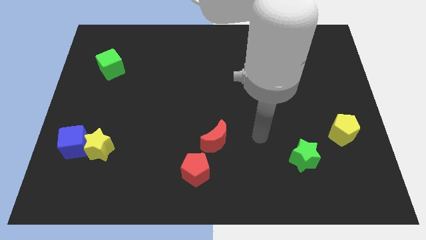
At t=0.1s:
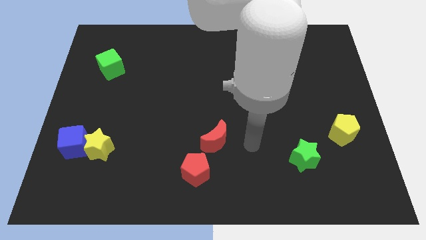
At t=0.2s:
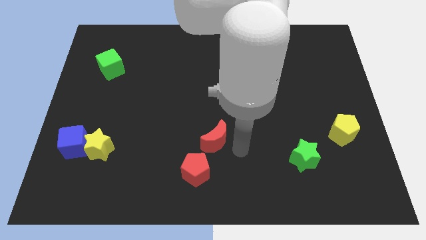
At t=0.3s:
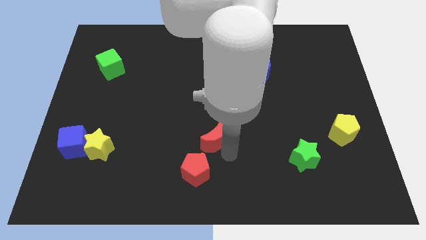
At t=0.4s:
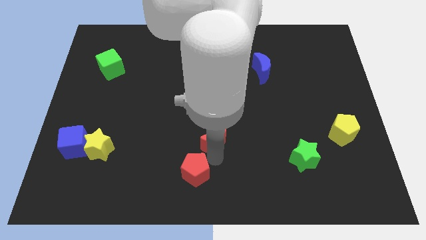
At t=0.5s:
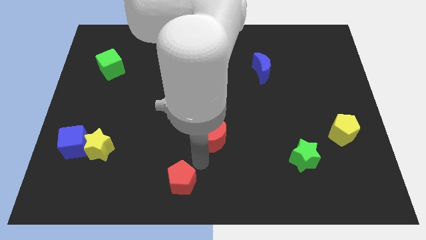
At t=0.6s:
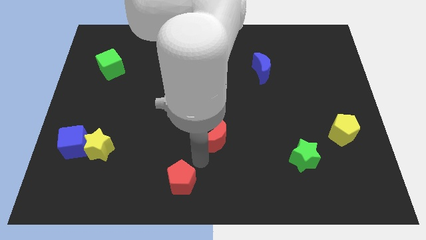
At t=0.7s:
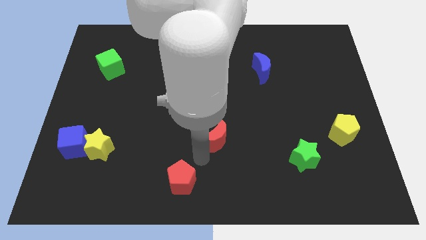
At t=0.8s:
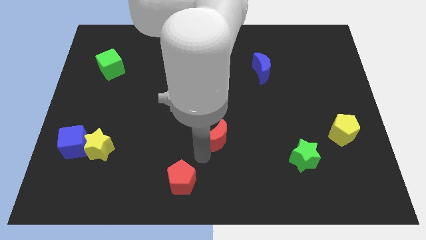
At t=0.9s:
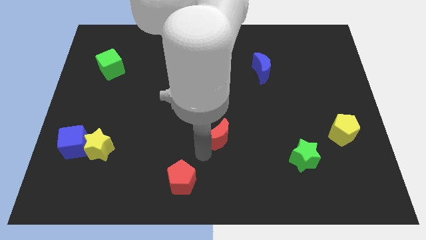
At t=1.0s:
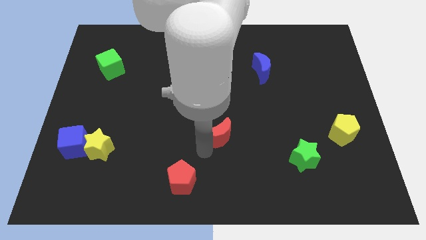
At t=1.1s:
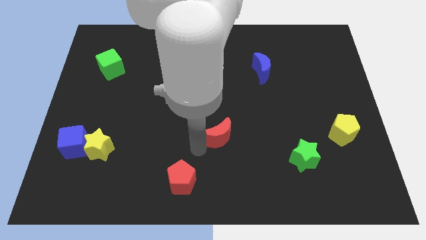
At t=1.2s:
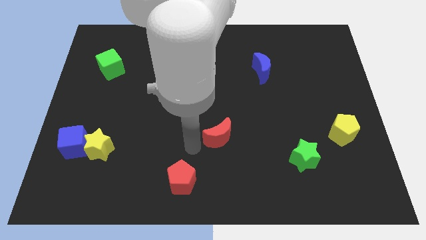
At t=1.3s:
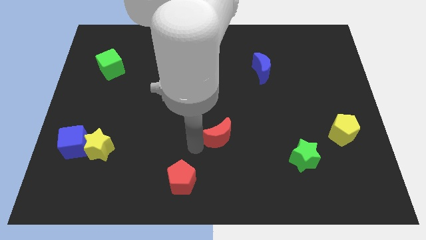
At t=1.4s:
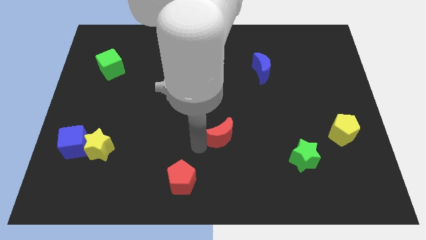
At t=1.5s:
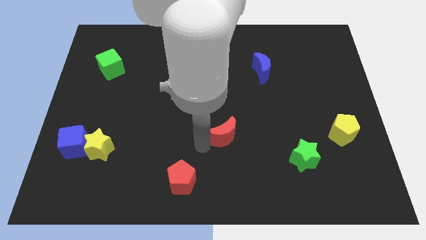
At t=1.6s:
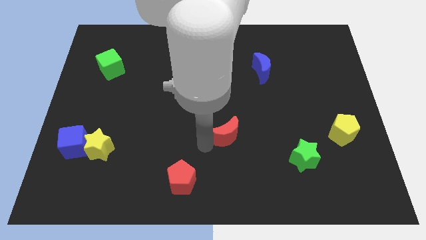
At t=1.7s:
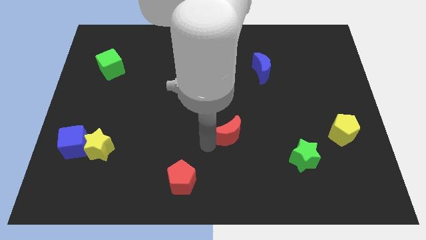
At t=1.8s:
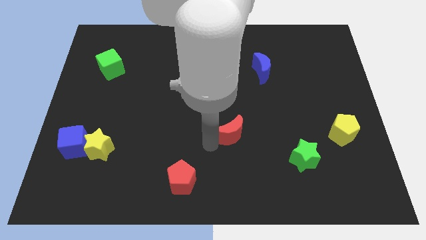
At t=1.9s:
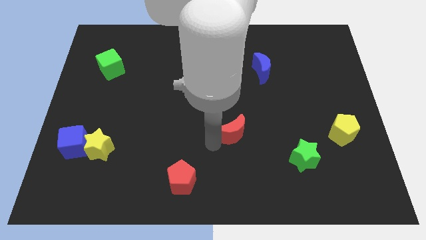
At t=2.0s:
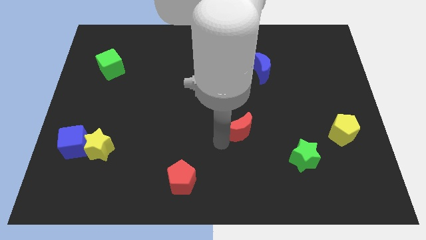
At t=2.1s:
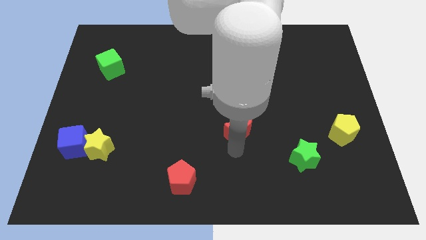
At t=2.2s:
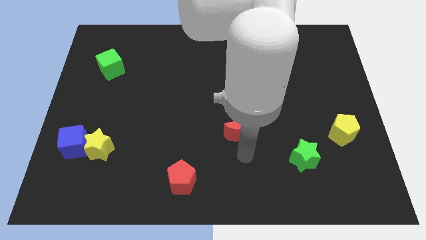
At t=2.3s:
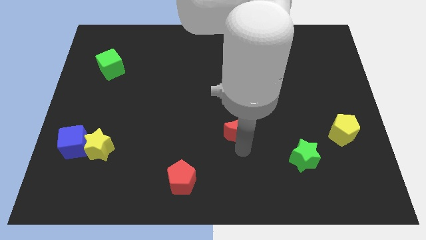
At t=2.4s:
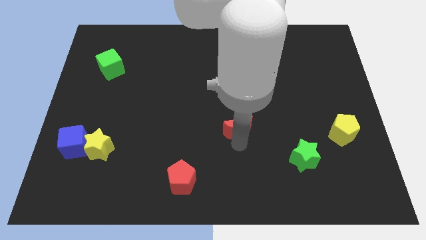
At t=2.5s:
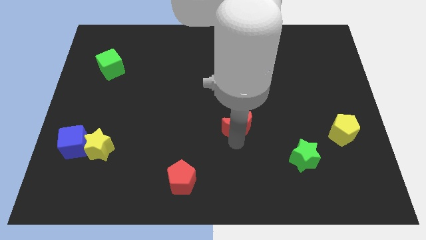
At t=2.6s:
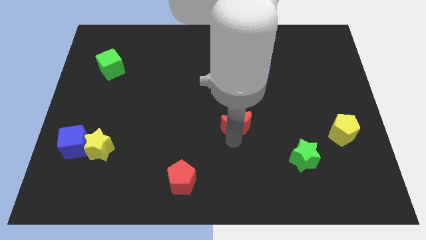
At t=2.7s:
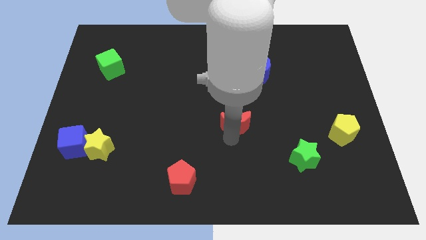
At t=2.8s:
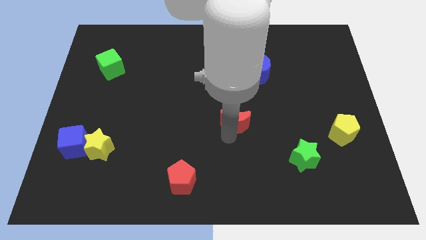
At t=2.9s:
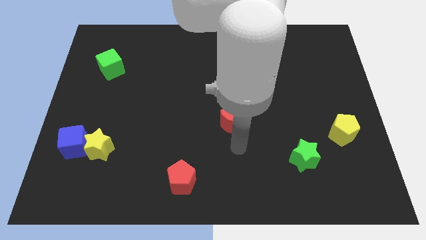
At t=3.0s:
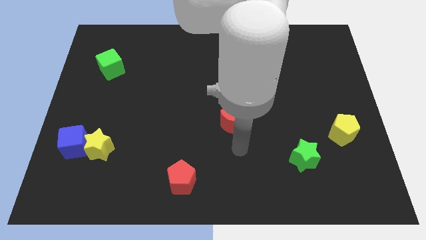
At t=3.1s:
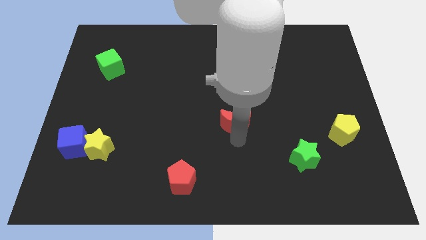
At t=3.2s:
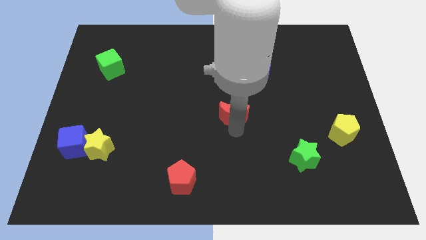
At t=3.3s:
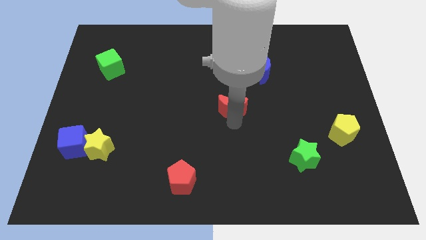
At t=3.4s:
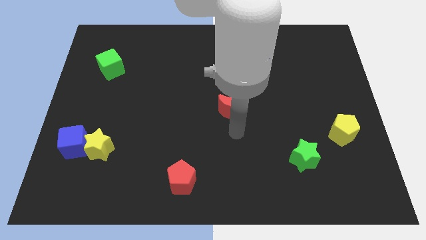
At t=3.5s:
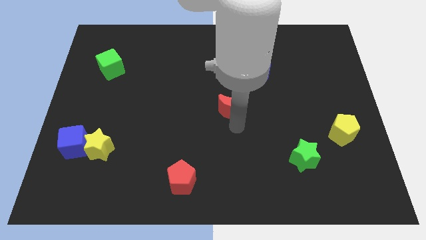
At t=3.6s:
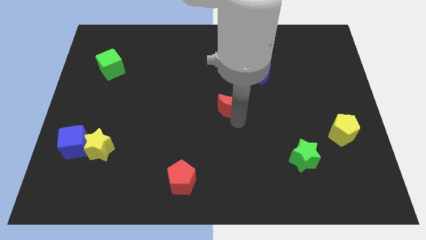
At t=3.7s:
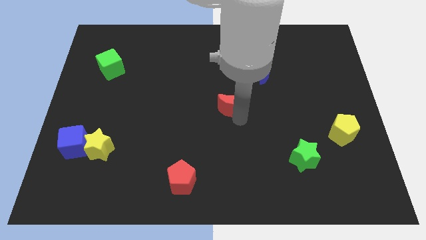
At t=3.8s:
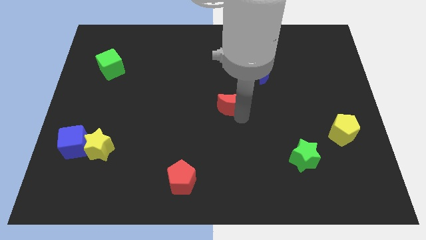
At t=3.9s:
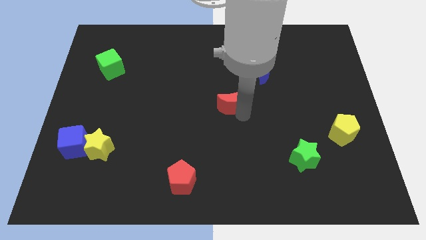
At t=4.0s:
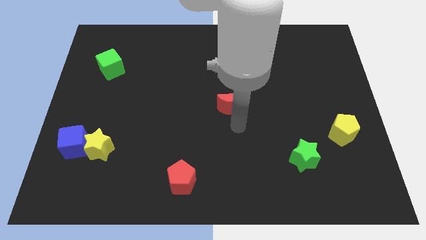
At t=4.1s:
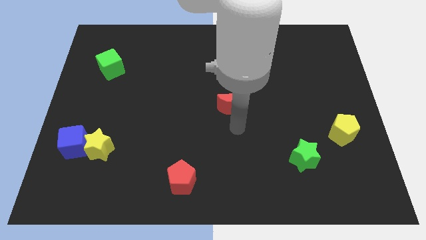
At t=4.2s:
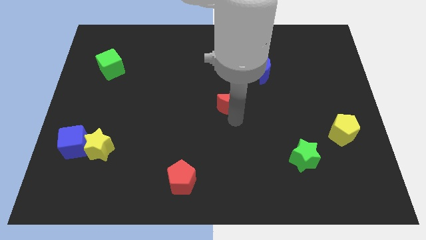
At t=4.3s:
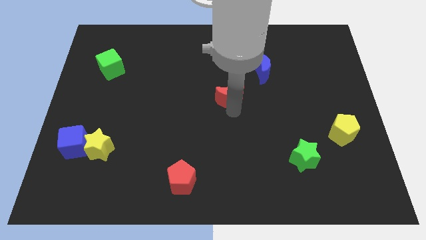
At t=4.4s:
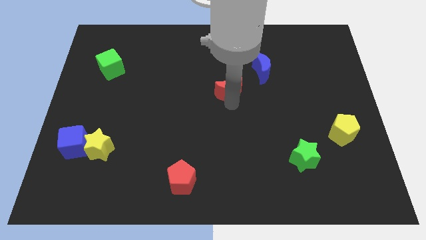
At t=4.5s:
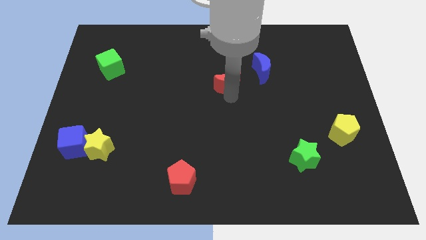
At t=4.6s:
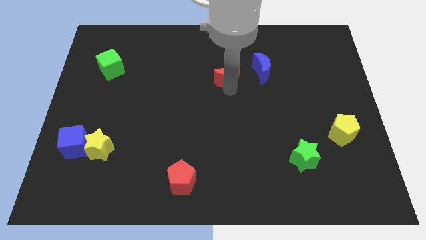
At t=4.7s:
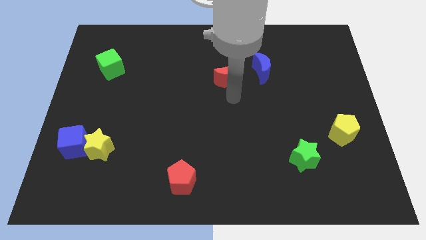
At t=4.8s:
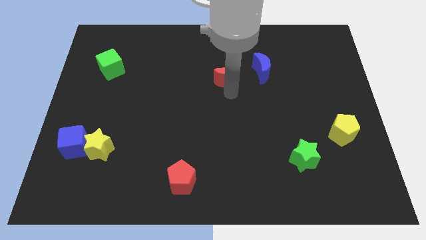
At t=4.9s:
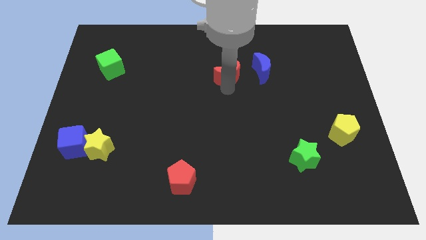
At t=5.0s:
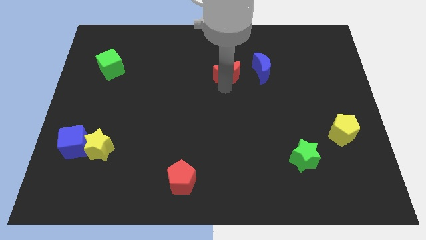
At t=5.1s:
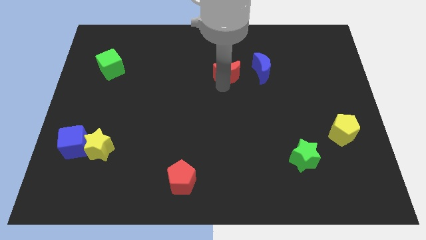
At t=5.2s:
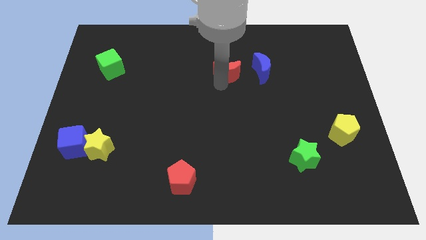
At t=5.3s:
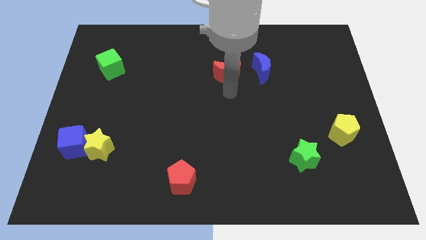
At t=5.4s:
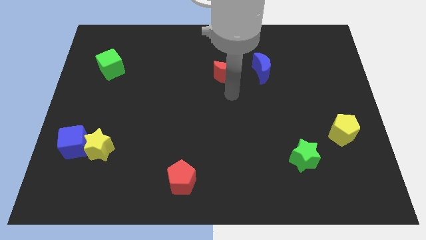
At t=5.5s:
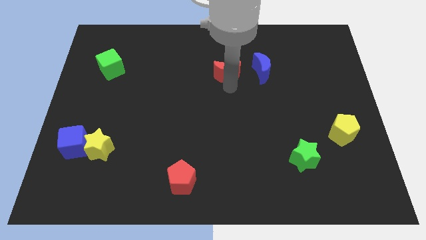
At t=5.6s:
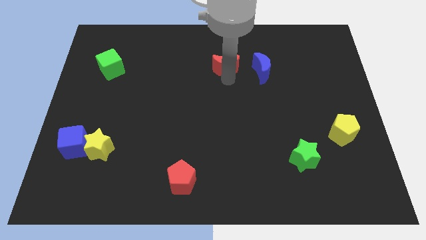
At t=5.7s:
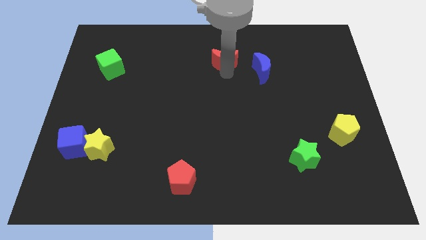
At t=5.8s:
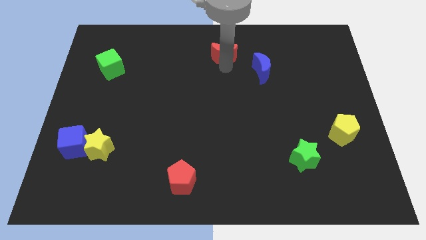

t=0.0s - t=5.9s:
slide the red moon to the top side
